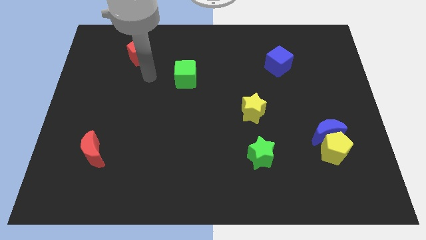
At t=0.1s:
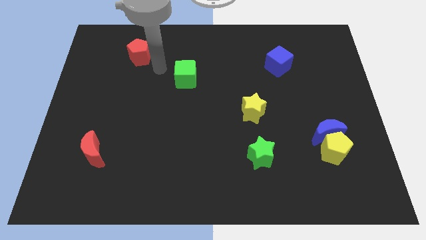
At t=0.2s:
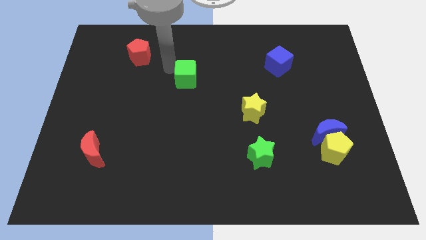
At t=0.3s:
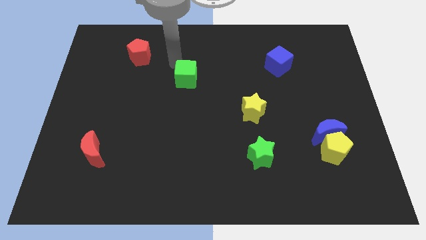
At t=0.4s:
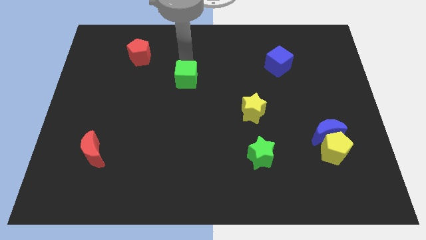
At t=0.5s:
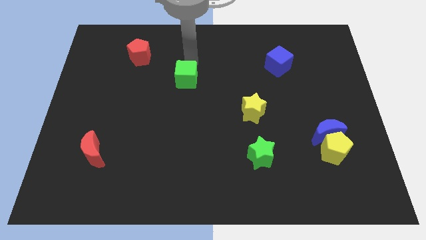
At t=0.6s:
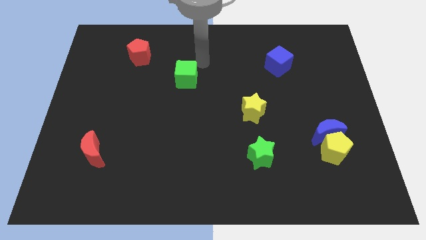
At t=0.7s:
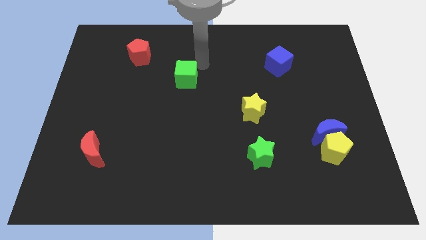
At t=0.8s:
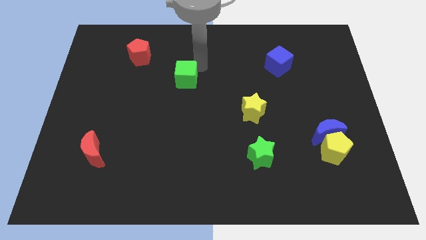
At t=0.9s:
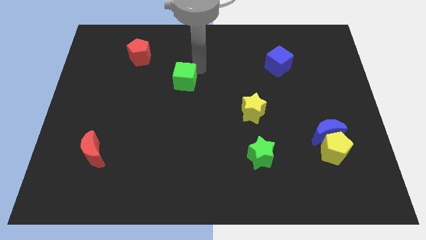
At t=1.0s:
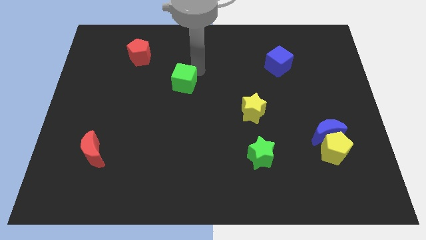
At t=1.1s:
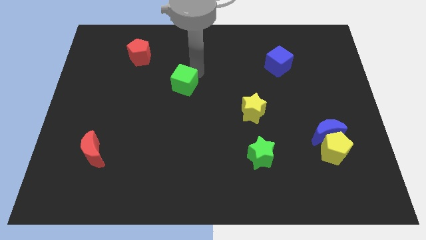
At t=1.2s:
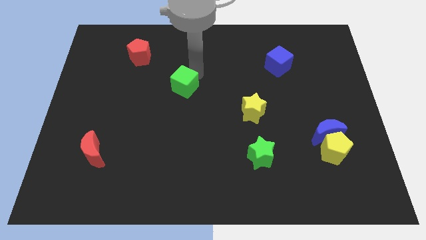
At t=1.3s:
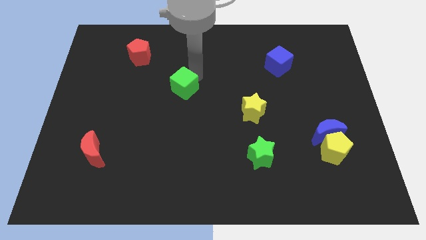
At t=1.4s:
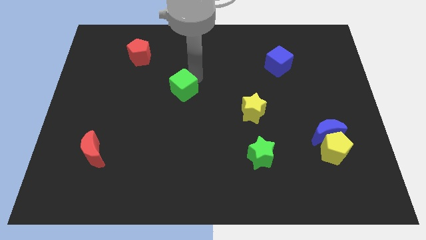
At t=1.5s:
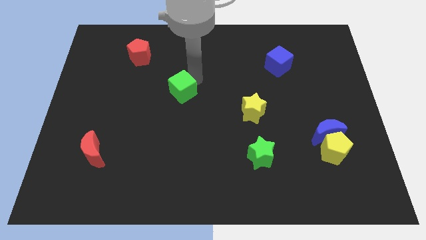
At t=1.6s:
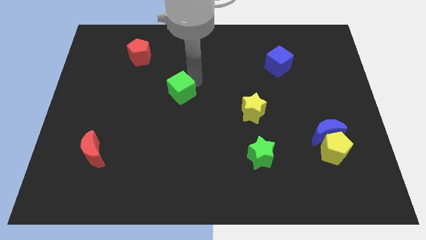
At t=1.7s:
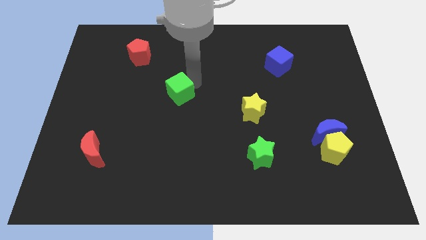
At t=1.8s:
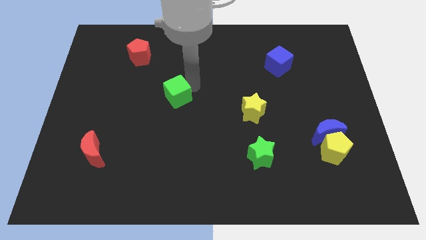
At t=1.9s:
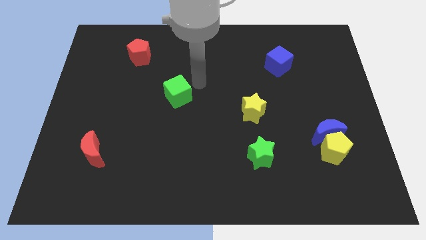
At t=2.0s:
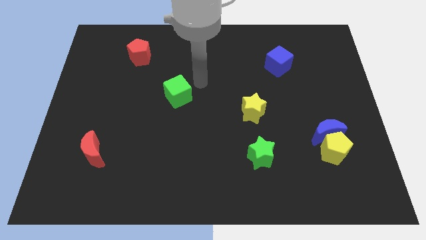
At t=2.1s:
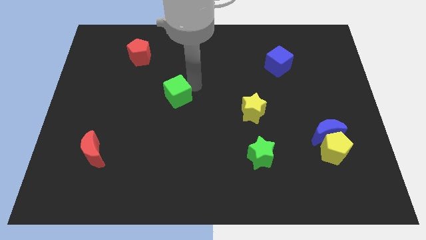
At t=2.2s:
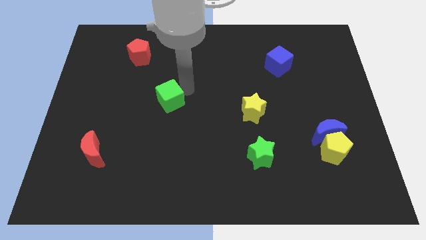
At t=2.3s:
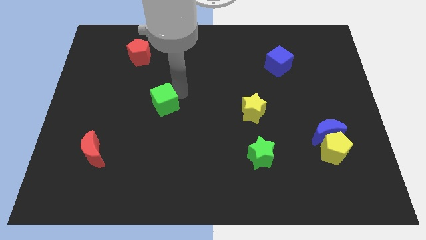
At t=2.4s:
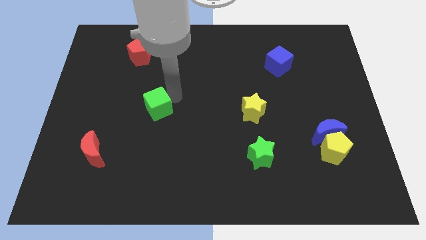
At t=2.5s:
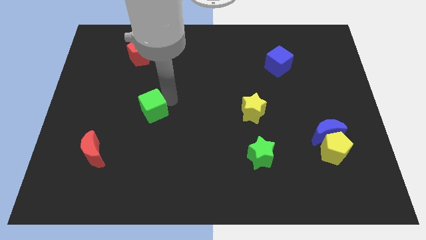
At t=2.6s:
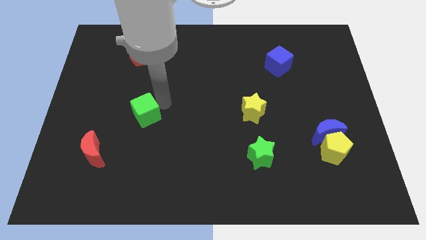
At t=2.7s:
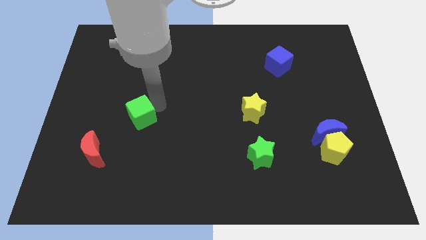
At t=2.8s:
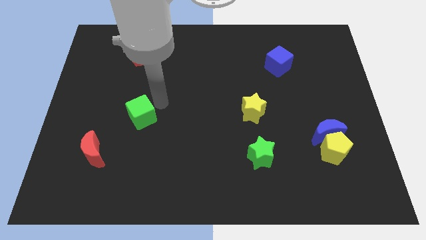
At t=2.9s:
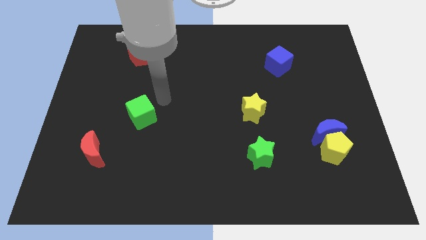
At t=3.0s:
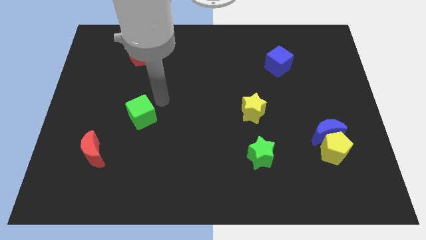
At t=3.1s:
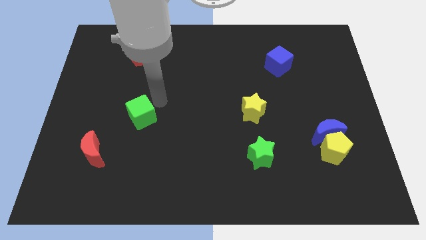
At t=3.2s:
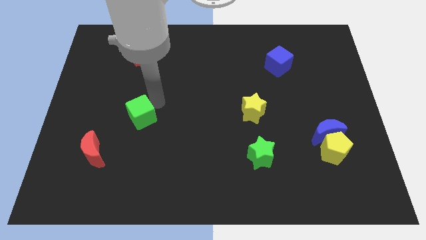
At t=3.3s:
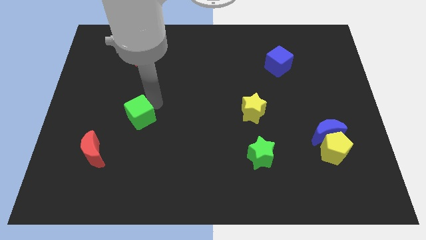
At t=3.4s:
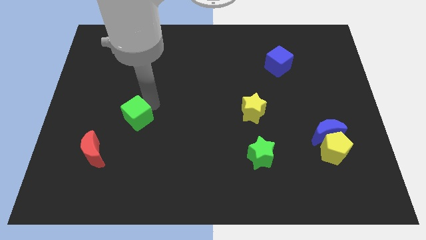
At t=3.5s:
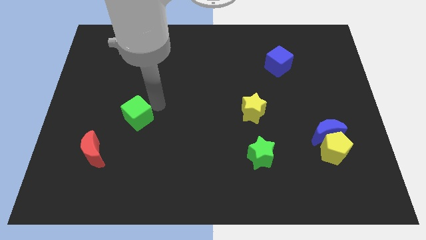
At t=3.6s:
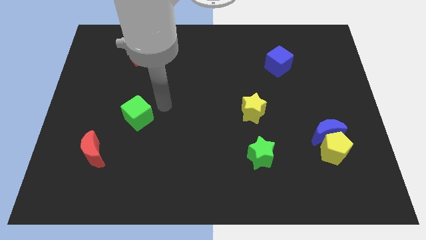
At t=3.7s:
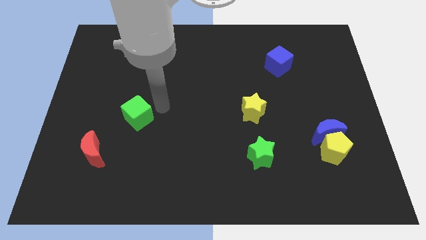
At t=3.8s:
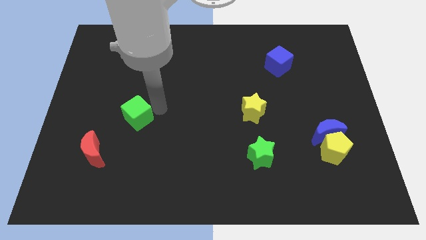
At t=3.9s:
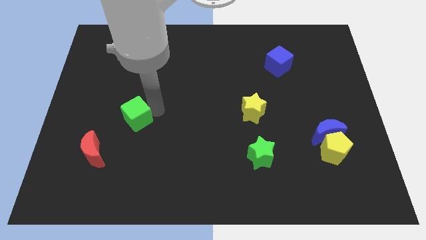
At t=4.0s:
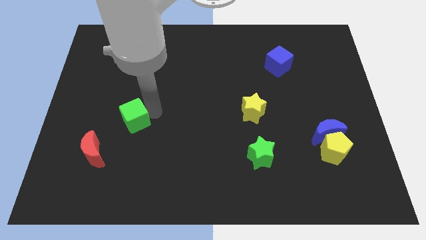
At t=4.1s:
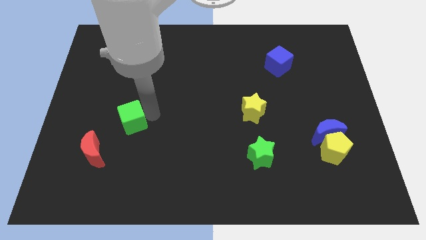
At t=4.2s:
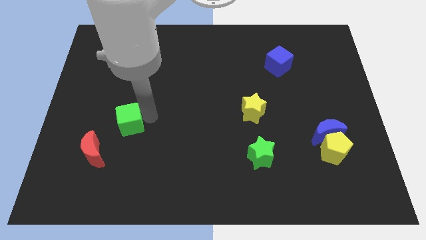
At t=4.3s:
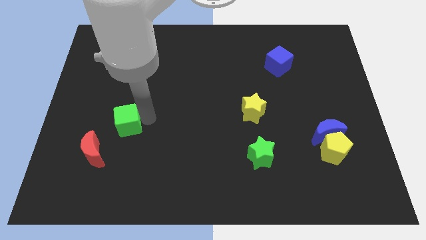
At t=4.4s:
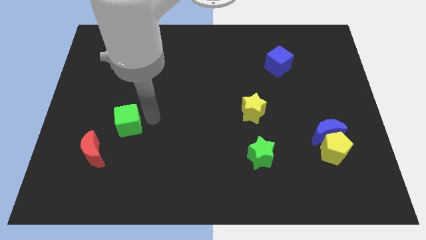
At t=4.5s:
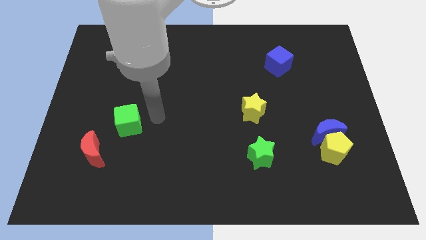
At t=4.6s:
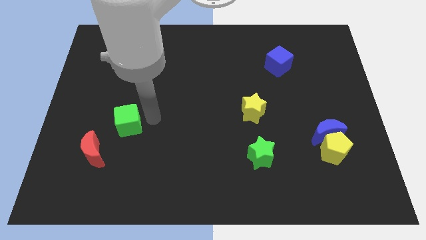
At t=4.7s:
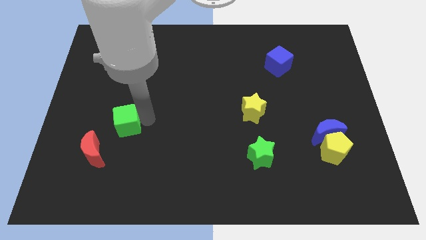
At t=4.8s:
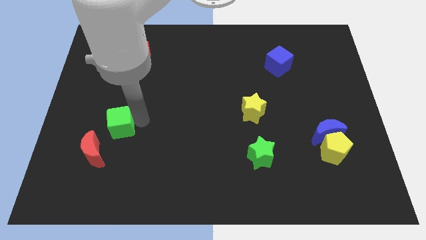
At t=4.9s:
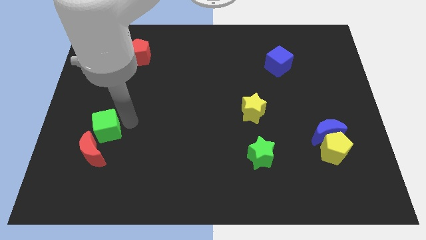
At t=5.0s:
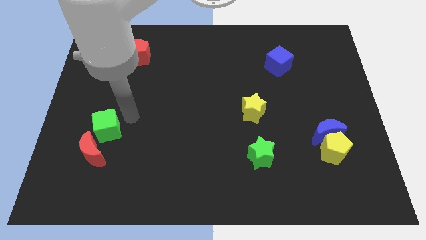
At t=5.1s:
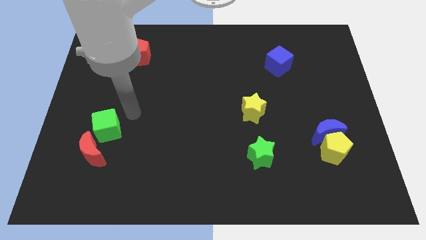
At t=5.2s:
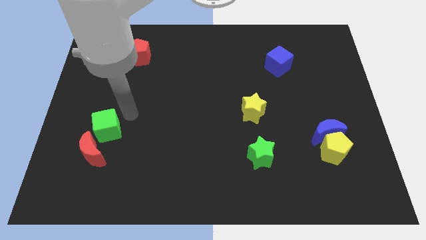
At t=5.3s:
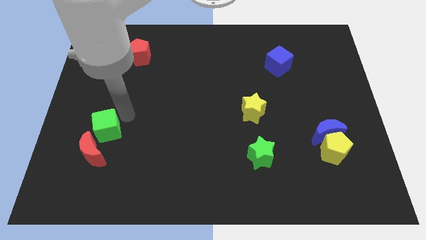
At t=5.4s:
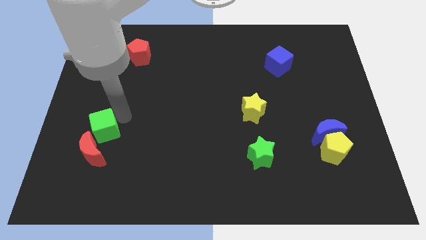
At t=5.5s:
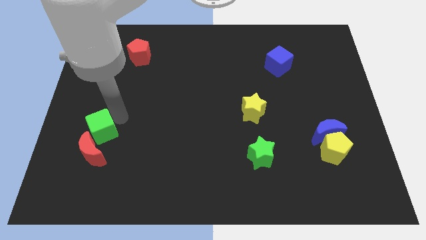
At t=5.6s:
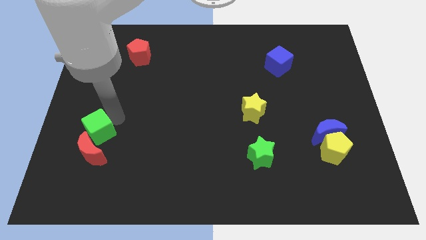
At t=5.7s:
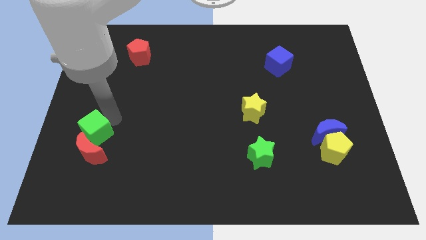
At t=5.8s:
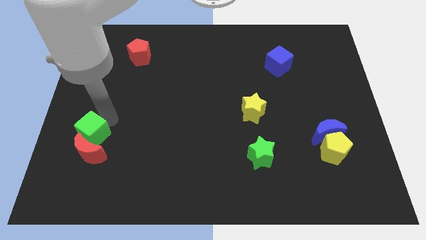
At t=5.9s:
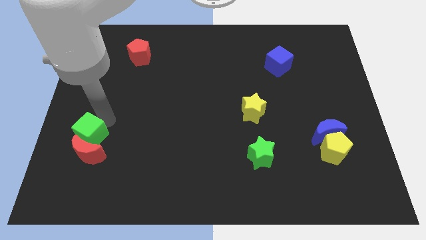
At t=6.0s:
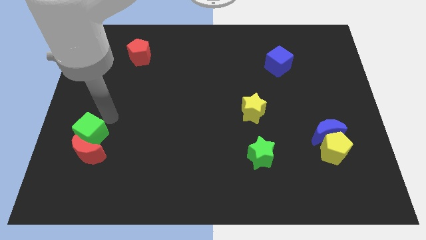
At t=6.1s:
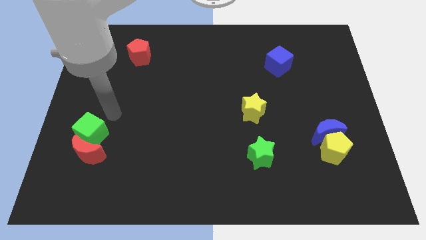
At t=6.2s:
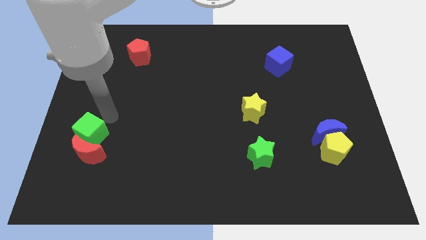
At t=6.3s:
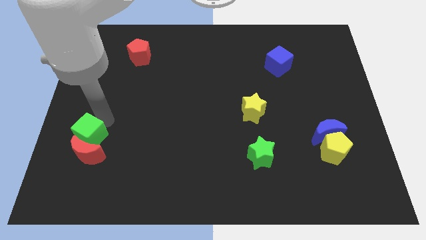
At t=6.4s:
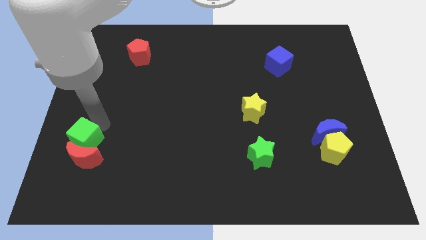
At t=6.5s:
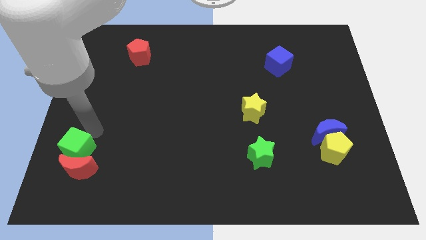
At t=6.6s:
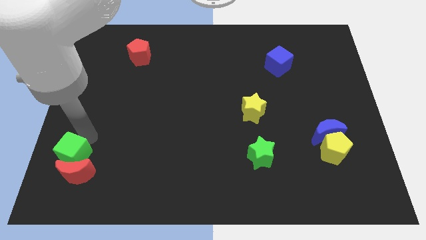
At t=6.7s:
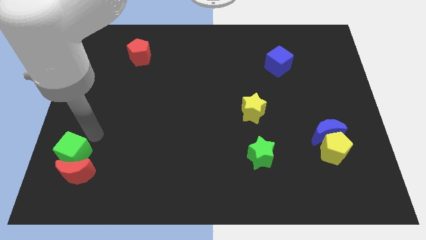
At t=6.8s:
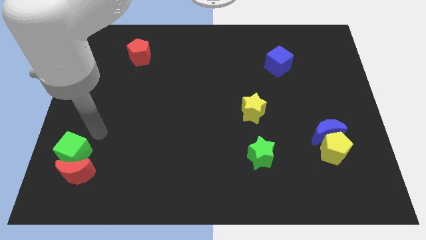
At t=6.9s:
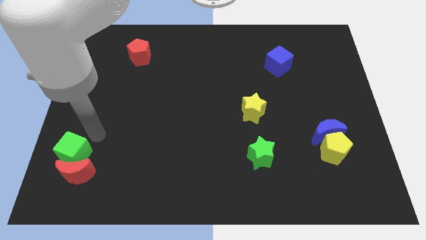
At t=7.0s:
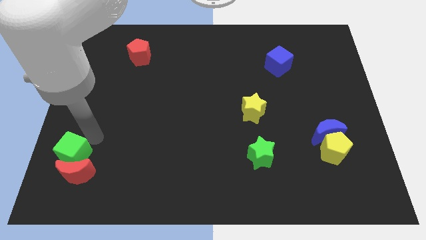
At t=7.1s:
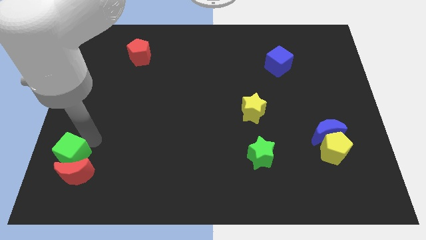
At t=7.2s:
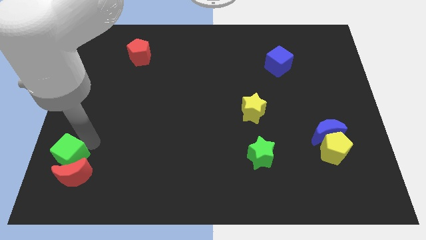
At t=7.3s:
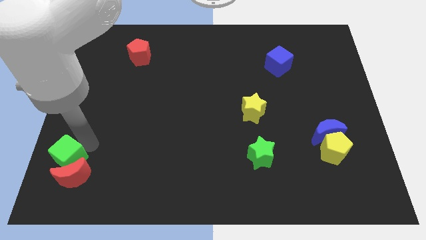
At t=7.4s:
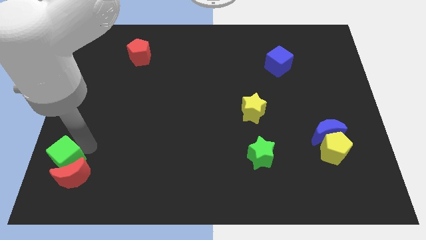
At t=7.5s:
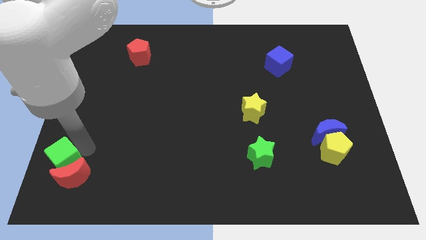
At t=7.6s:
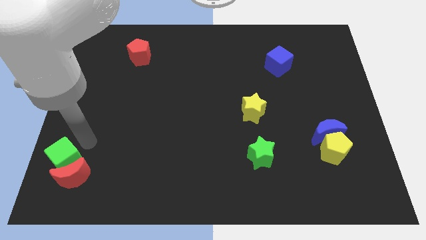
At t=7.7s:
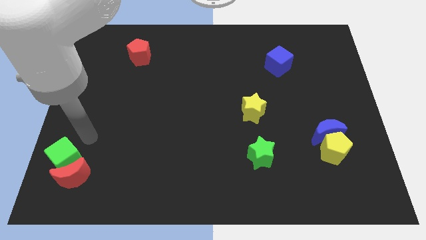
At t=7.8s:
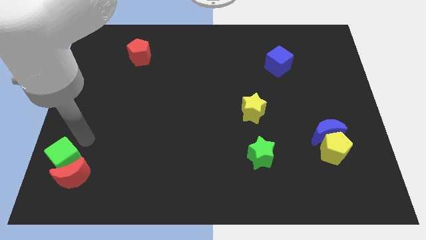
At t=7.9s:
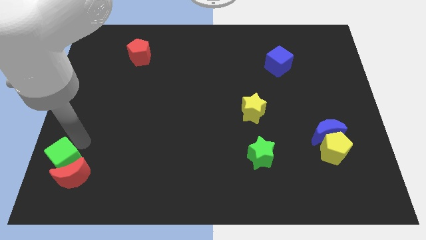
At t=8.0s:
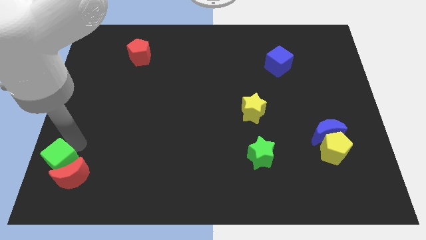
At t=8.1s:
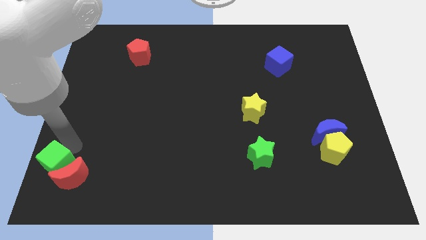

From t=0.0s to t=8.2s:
put the green cube to the bottom left corner
